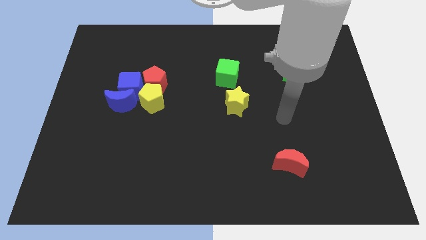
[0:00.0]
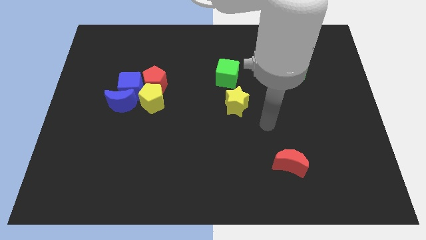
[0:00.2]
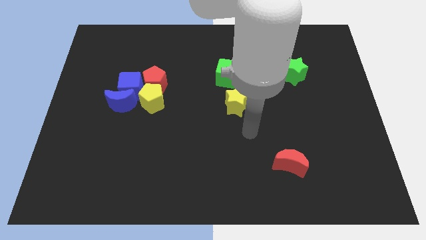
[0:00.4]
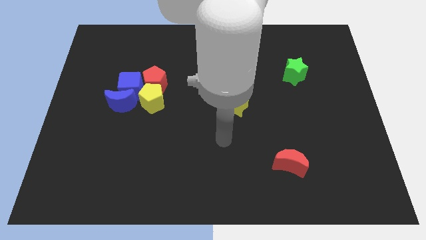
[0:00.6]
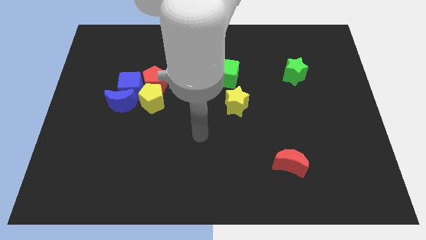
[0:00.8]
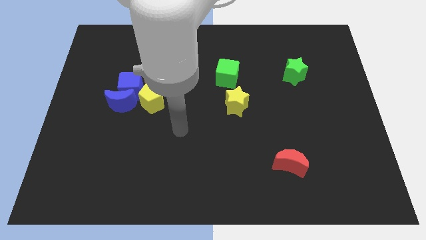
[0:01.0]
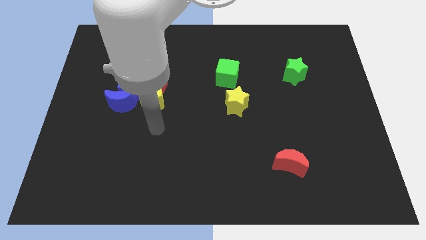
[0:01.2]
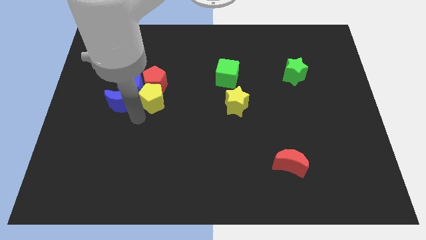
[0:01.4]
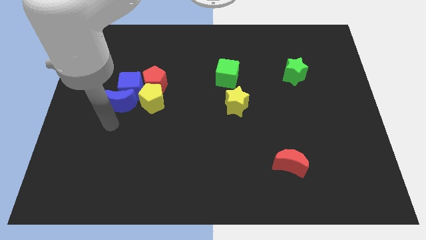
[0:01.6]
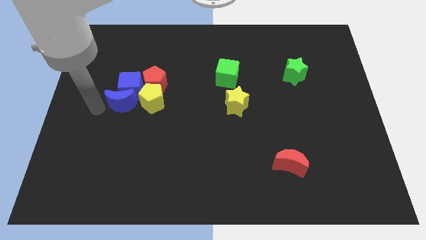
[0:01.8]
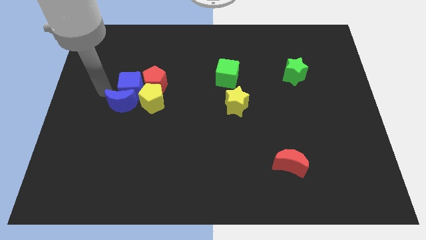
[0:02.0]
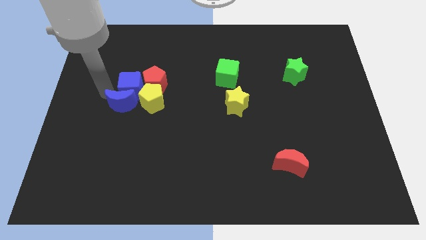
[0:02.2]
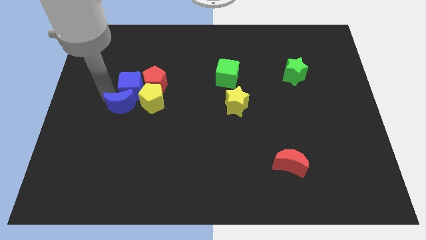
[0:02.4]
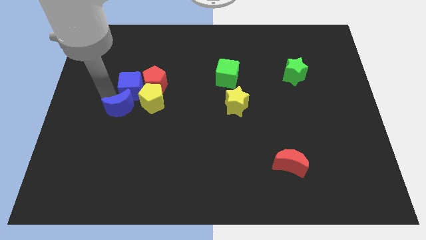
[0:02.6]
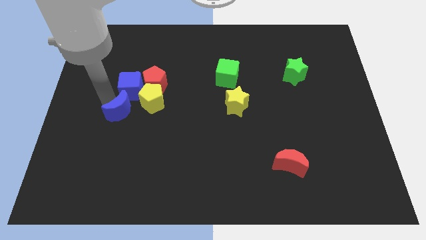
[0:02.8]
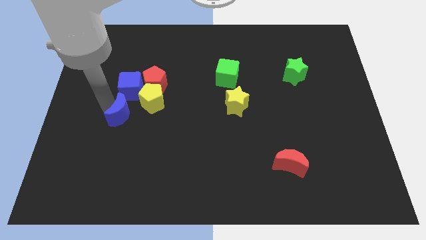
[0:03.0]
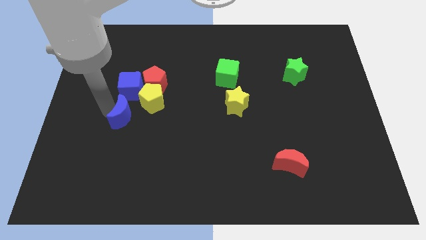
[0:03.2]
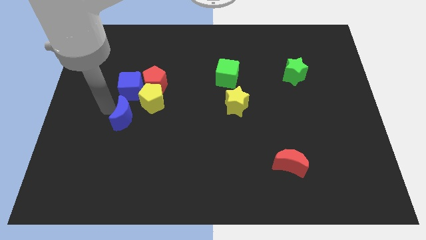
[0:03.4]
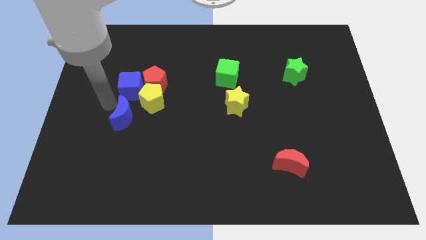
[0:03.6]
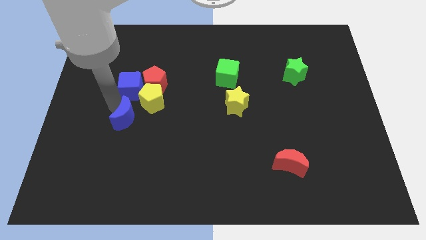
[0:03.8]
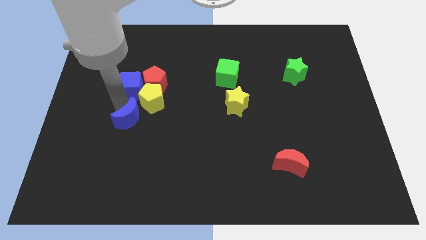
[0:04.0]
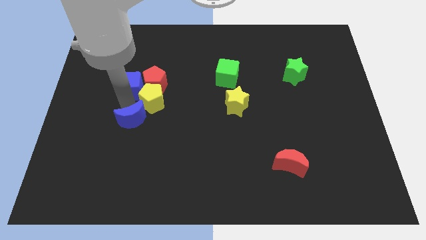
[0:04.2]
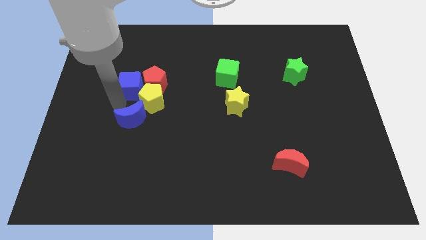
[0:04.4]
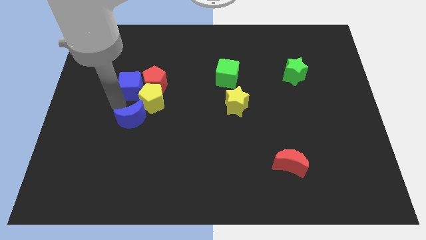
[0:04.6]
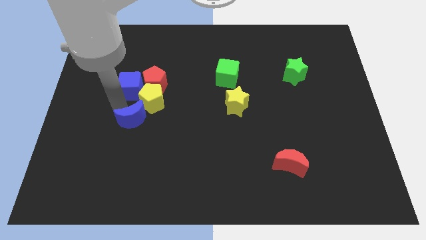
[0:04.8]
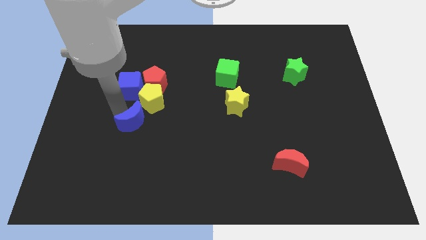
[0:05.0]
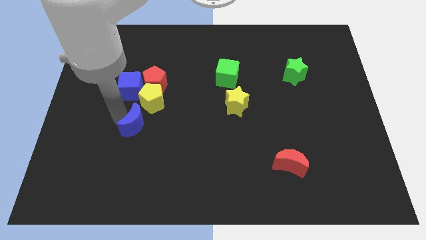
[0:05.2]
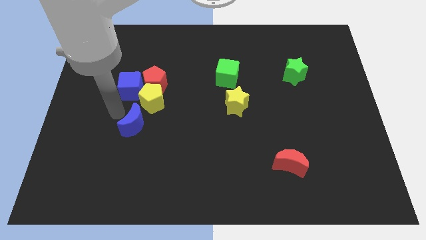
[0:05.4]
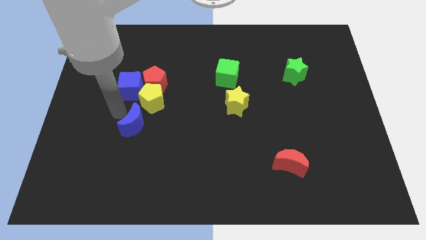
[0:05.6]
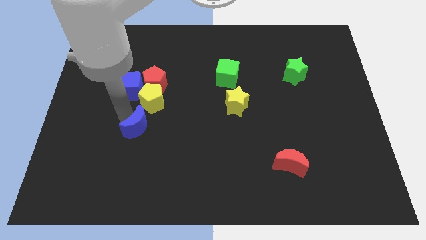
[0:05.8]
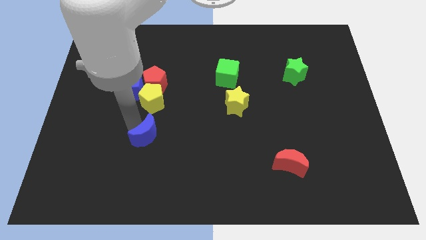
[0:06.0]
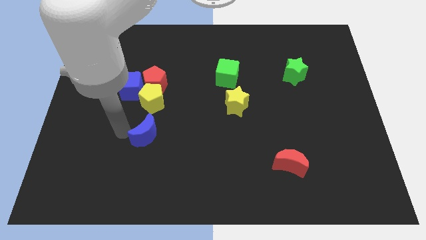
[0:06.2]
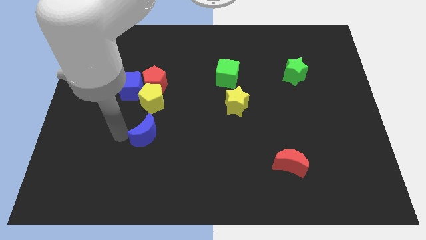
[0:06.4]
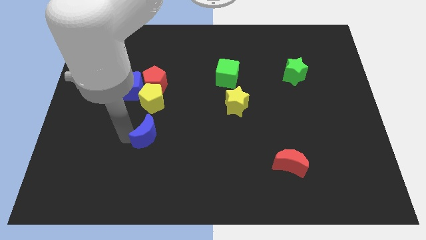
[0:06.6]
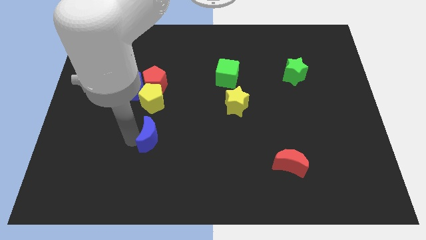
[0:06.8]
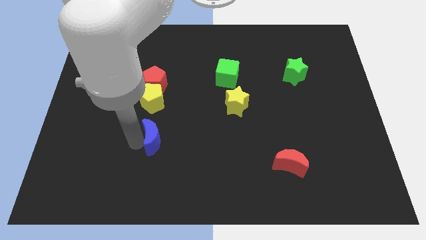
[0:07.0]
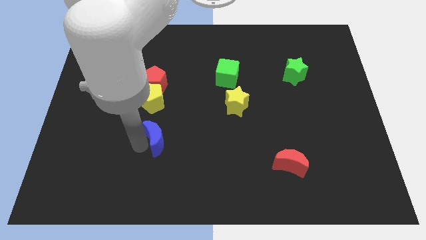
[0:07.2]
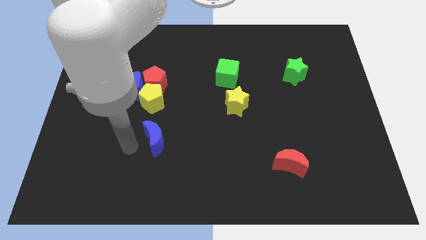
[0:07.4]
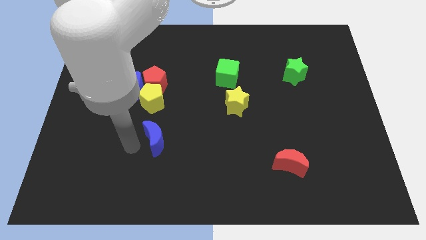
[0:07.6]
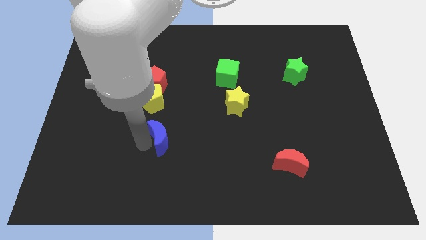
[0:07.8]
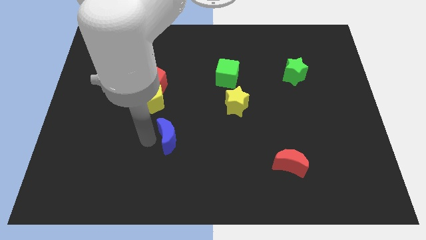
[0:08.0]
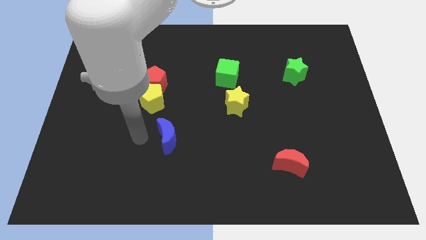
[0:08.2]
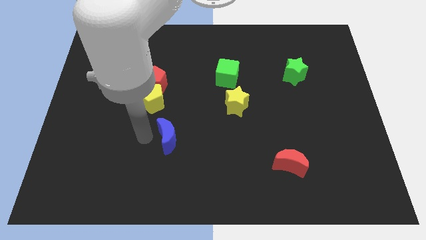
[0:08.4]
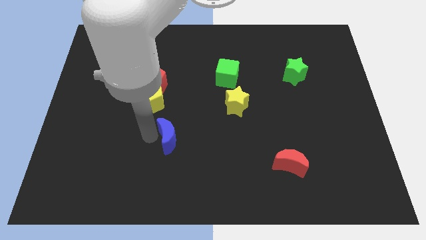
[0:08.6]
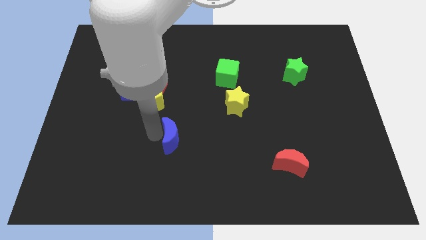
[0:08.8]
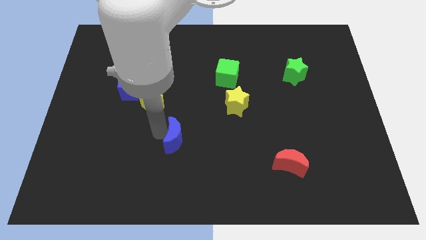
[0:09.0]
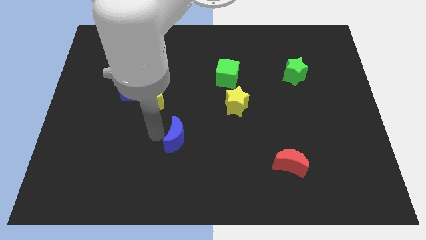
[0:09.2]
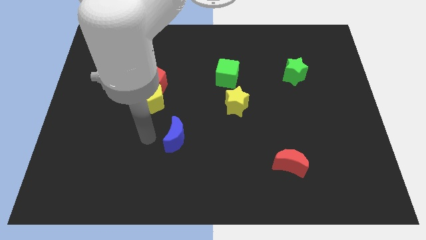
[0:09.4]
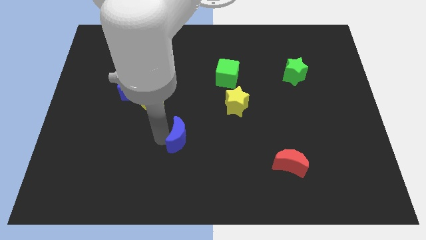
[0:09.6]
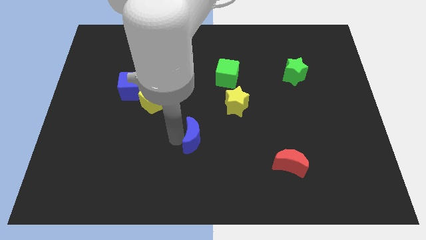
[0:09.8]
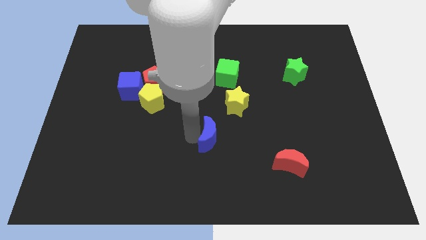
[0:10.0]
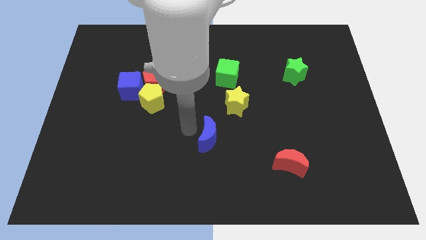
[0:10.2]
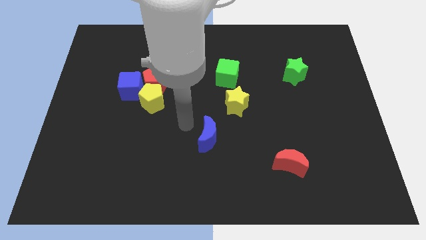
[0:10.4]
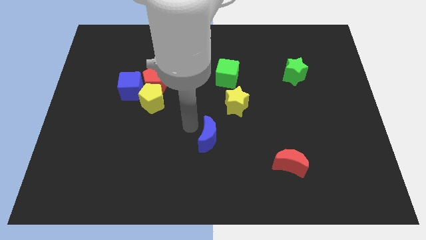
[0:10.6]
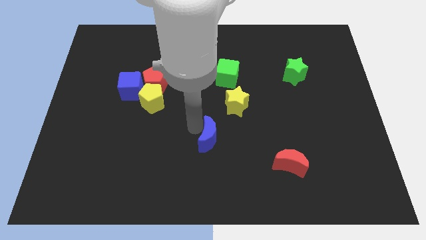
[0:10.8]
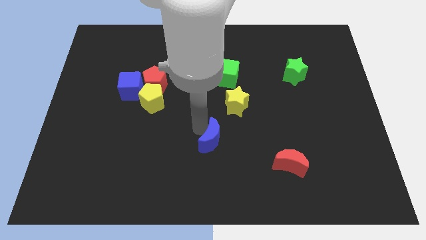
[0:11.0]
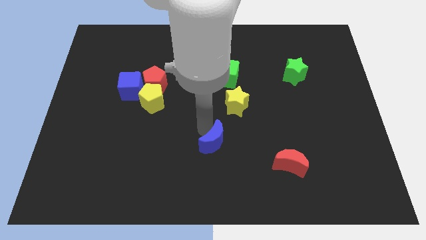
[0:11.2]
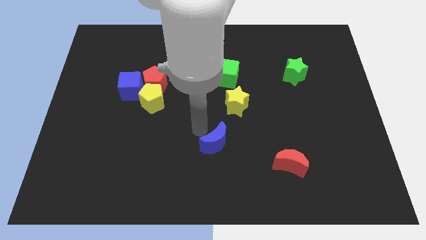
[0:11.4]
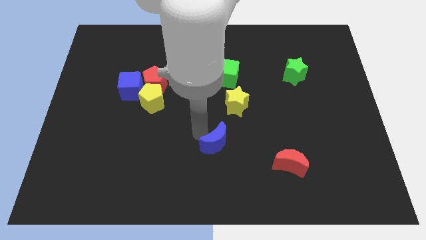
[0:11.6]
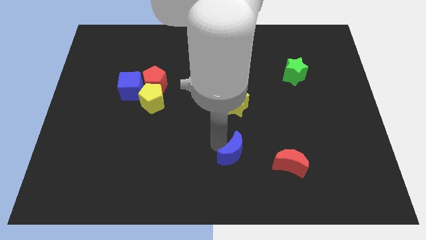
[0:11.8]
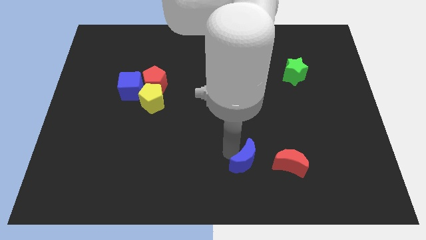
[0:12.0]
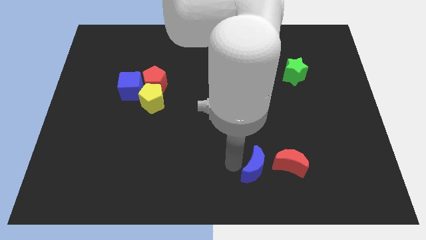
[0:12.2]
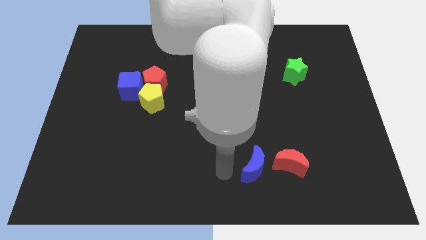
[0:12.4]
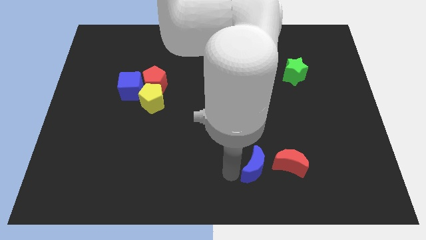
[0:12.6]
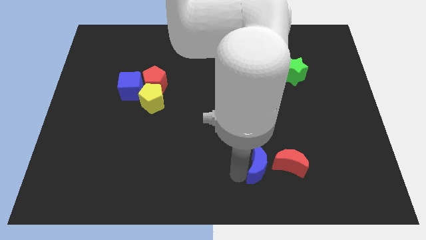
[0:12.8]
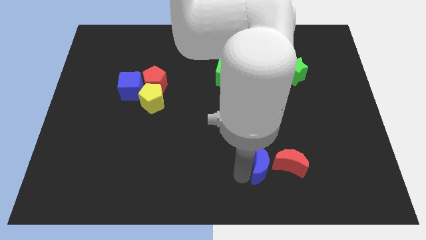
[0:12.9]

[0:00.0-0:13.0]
put the blue moon towards the red moon
